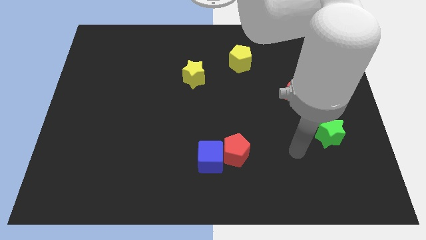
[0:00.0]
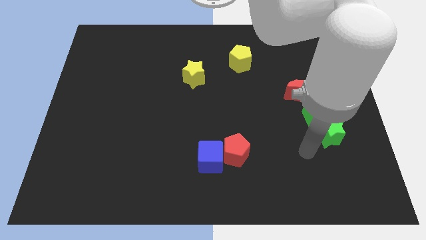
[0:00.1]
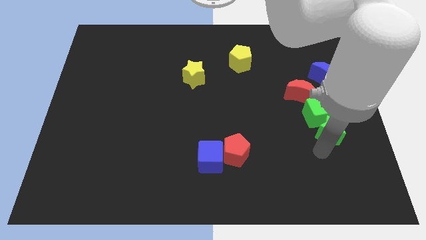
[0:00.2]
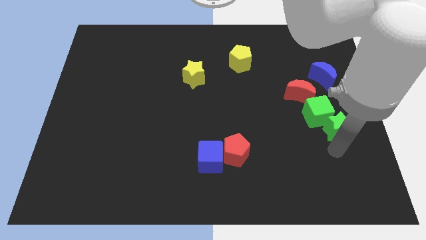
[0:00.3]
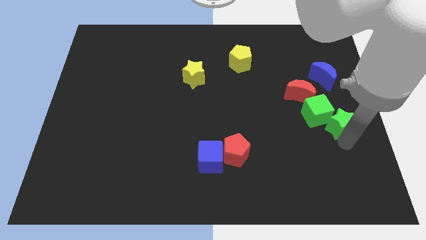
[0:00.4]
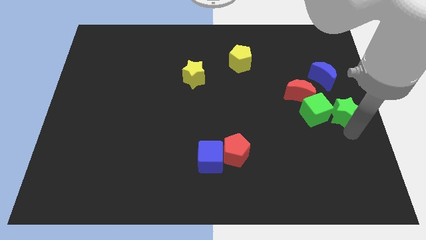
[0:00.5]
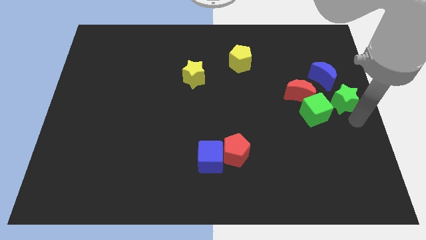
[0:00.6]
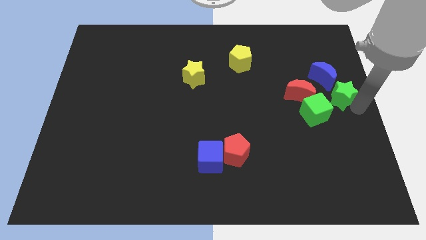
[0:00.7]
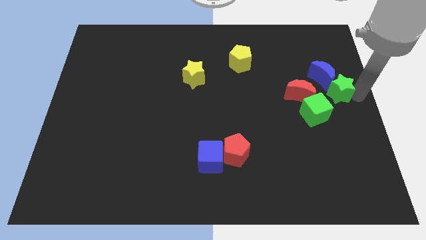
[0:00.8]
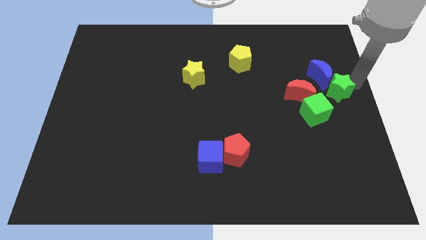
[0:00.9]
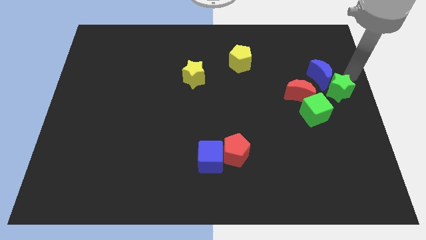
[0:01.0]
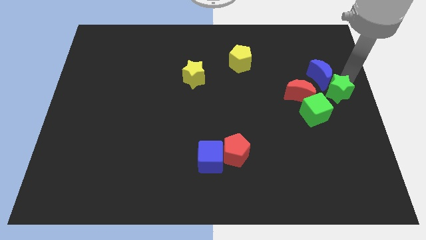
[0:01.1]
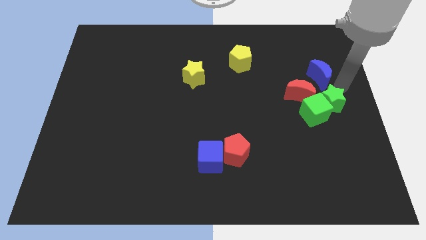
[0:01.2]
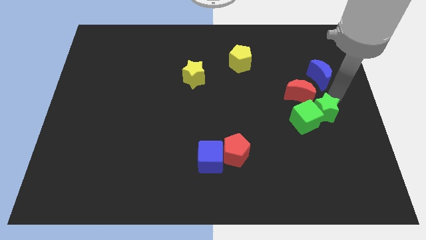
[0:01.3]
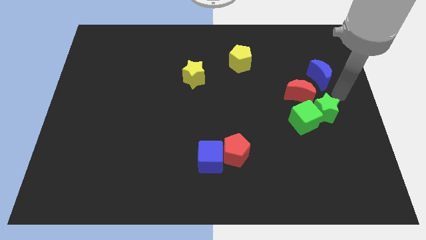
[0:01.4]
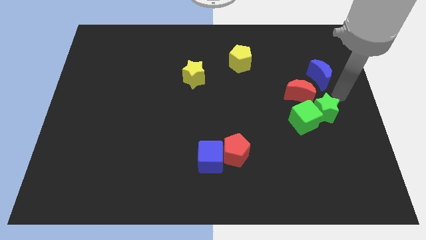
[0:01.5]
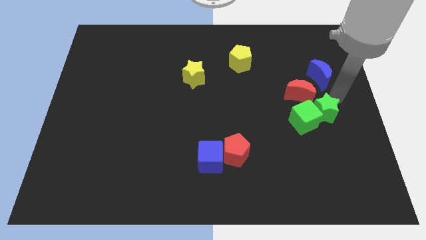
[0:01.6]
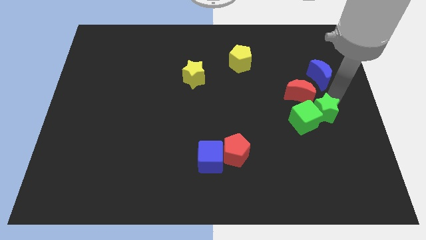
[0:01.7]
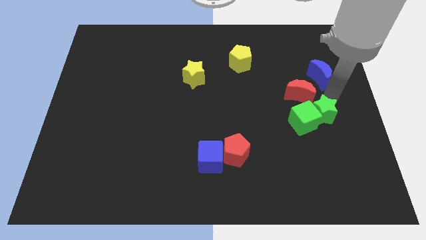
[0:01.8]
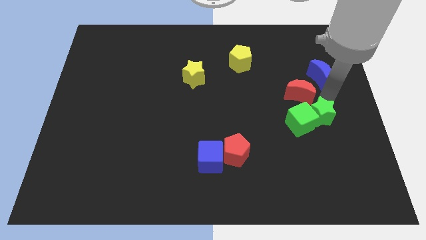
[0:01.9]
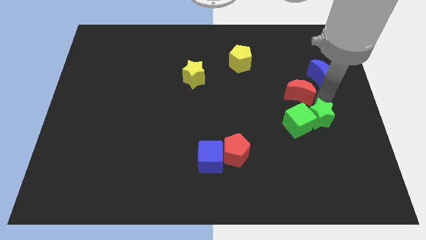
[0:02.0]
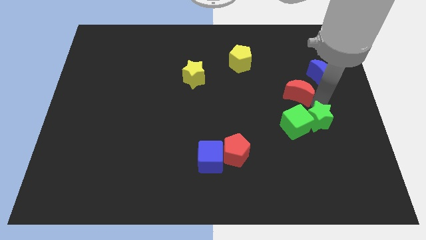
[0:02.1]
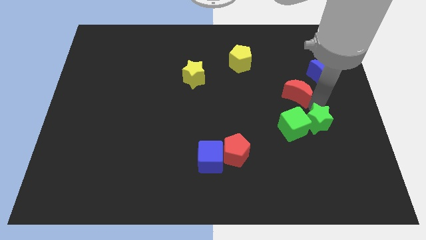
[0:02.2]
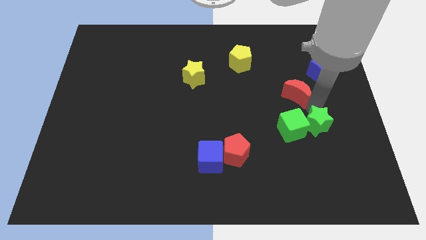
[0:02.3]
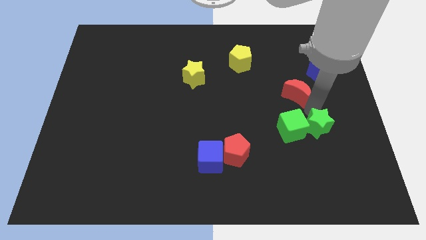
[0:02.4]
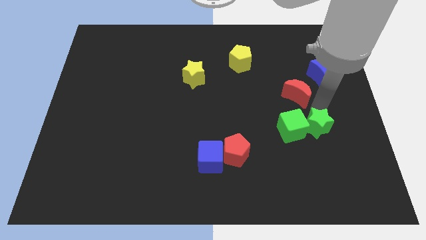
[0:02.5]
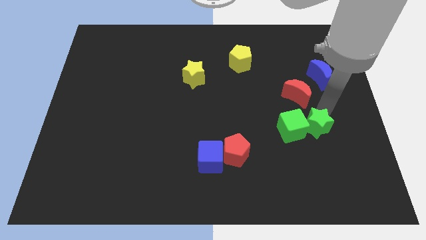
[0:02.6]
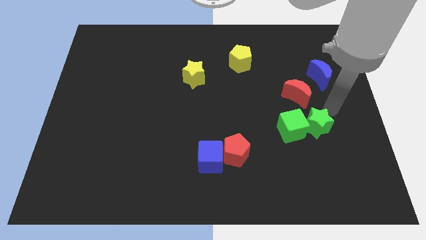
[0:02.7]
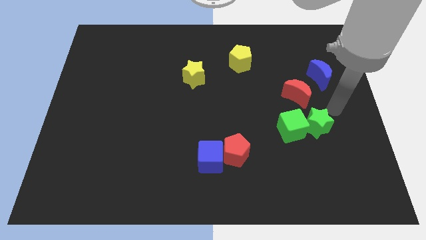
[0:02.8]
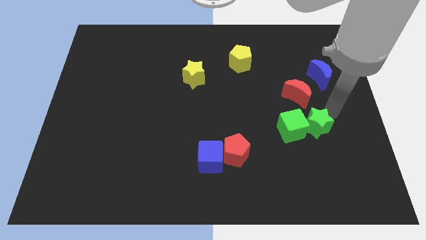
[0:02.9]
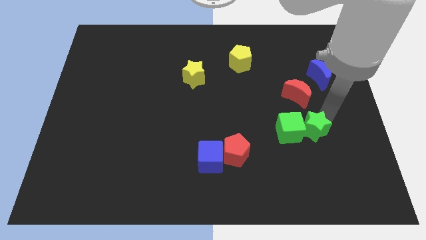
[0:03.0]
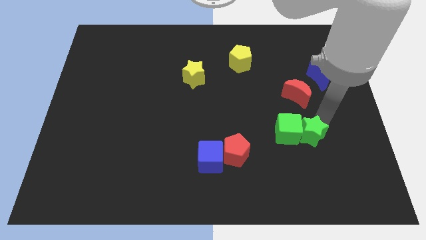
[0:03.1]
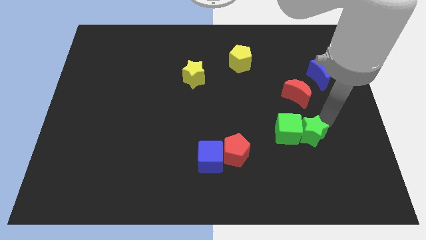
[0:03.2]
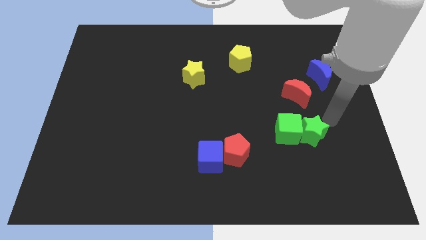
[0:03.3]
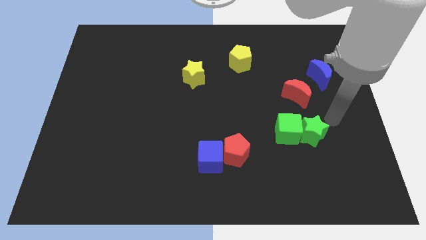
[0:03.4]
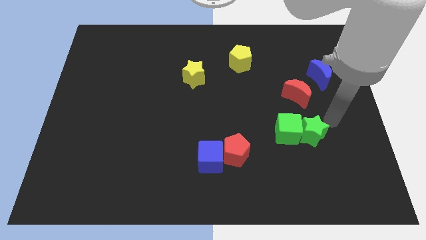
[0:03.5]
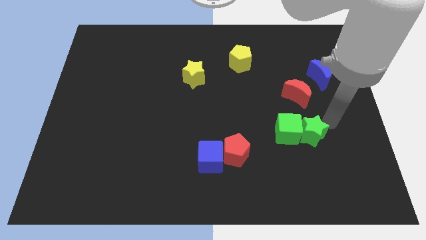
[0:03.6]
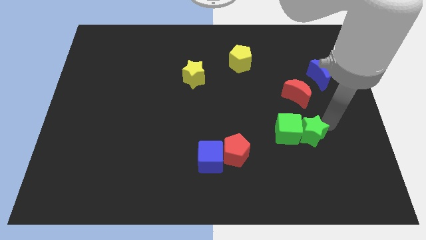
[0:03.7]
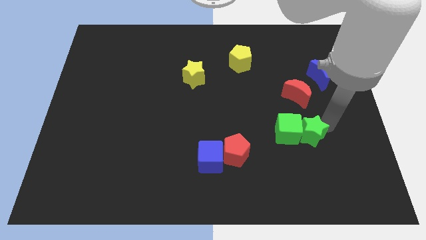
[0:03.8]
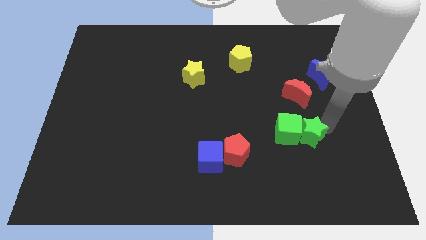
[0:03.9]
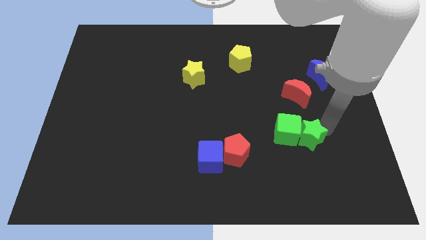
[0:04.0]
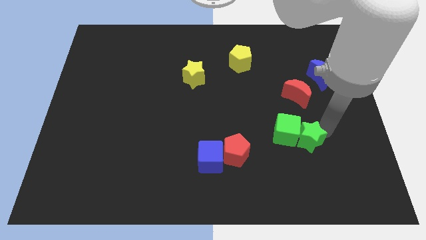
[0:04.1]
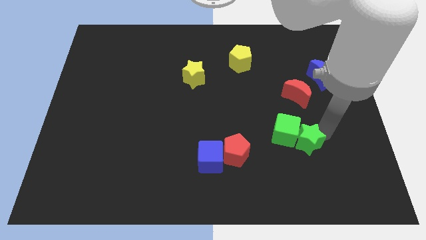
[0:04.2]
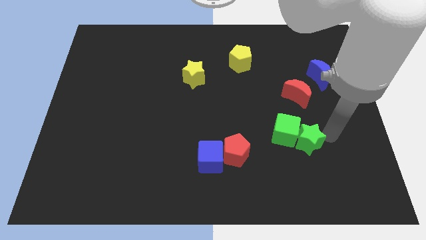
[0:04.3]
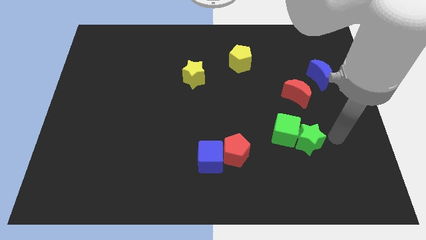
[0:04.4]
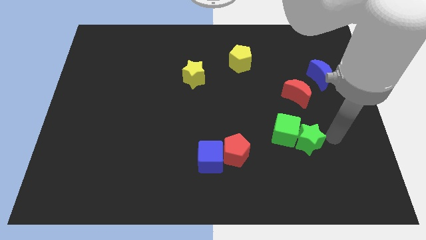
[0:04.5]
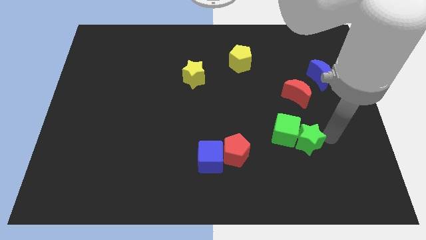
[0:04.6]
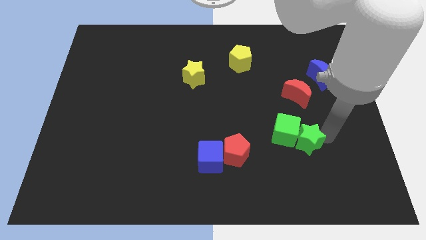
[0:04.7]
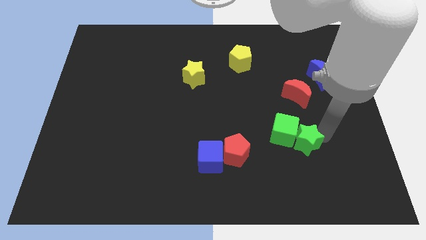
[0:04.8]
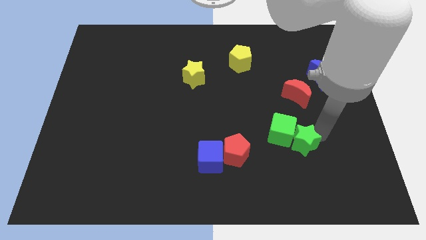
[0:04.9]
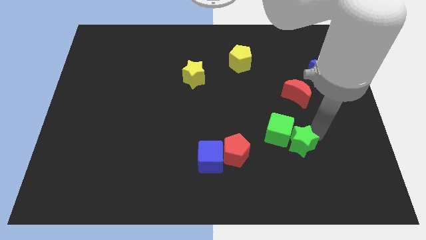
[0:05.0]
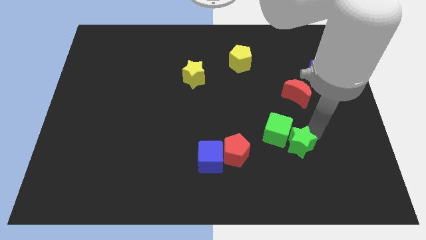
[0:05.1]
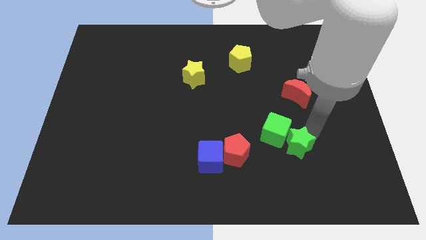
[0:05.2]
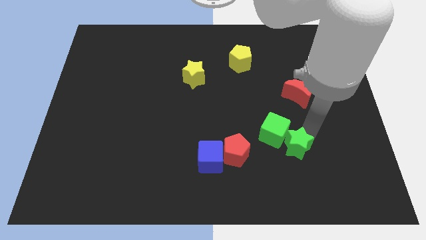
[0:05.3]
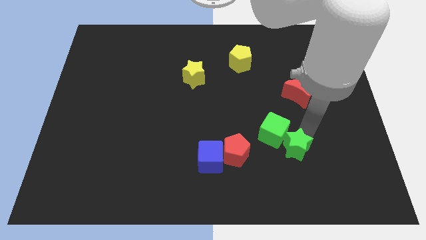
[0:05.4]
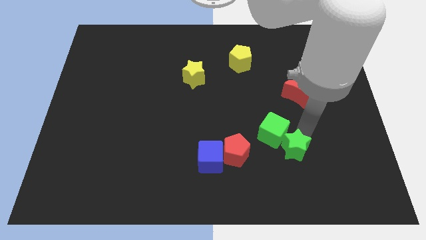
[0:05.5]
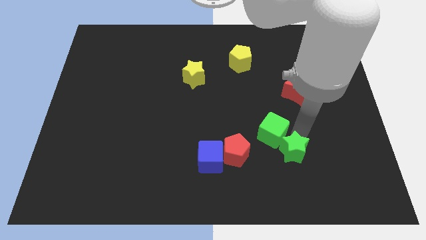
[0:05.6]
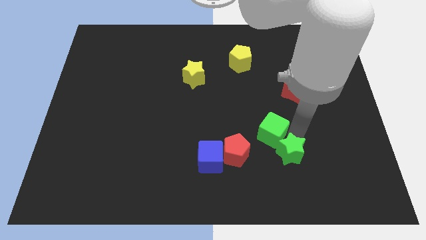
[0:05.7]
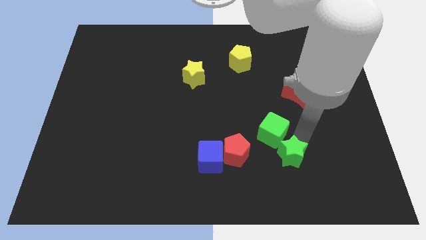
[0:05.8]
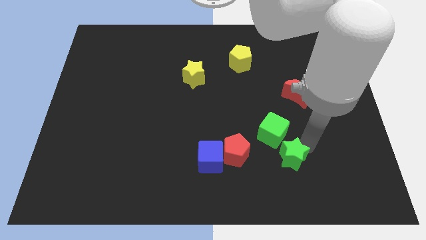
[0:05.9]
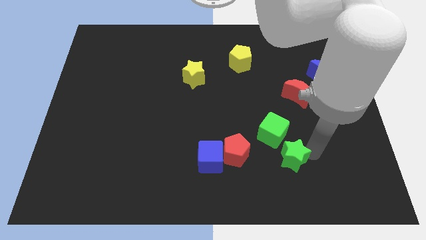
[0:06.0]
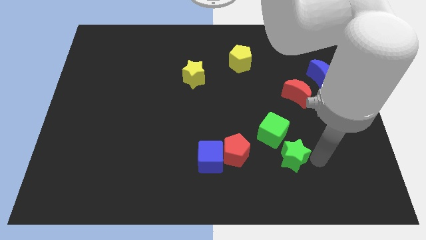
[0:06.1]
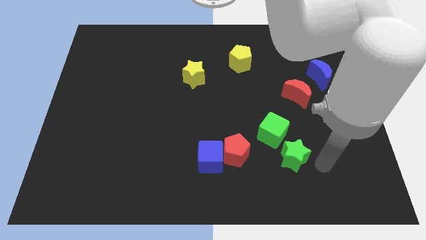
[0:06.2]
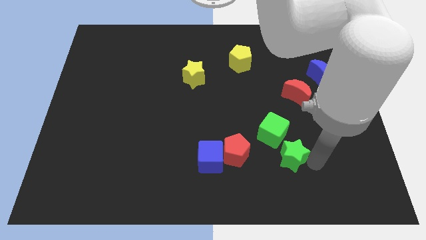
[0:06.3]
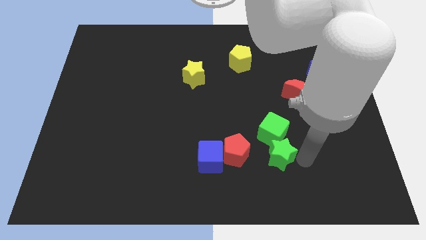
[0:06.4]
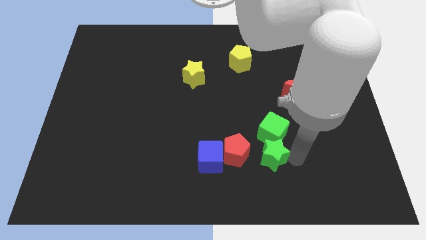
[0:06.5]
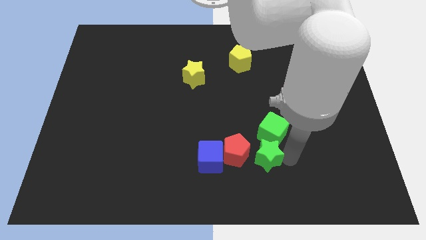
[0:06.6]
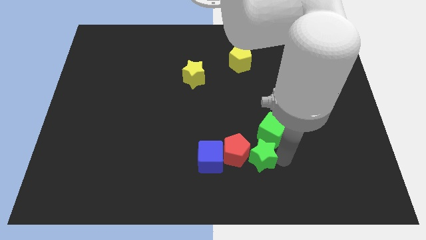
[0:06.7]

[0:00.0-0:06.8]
push the green star next to the red pentagon
